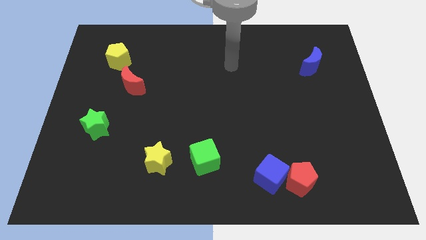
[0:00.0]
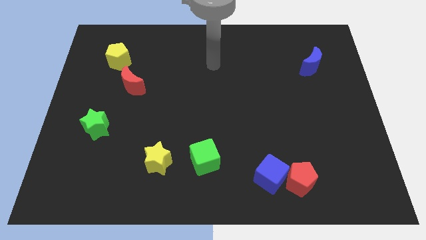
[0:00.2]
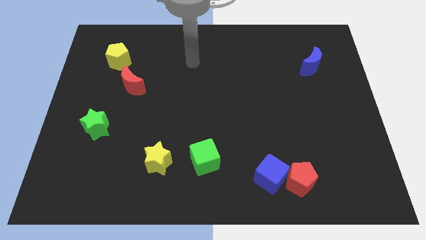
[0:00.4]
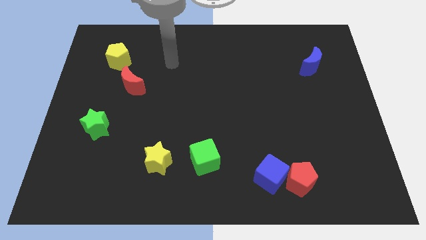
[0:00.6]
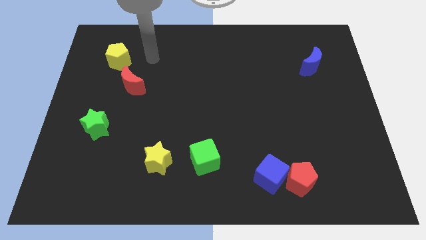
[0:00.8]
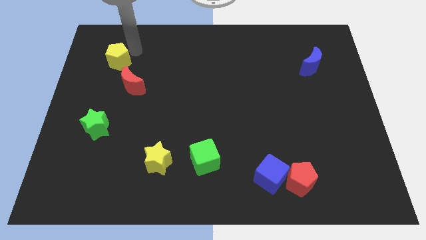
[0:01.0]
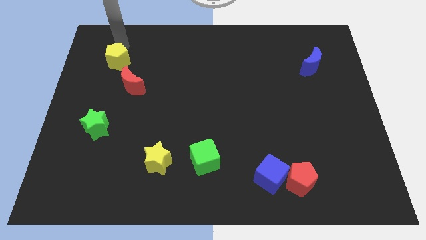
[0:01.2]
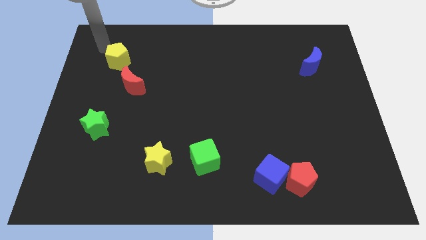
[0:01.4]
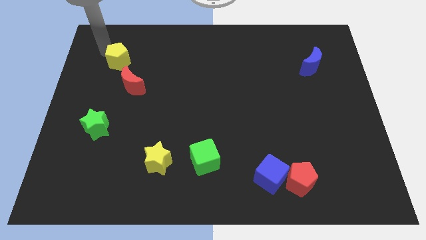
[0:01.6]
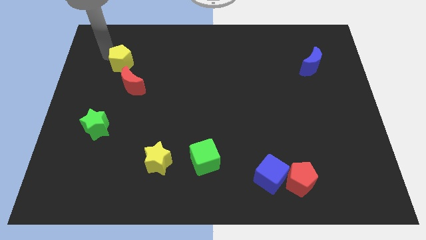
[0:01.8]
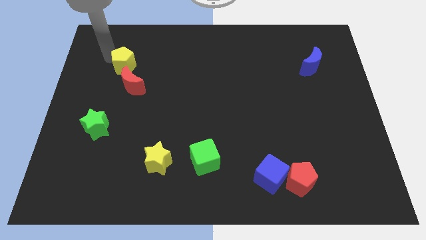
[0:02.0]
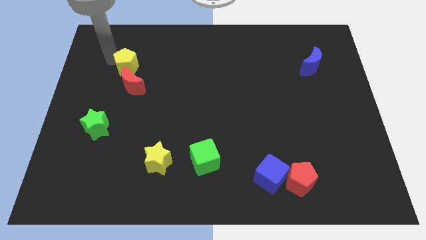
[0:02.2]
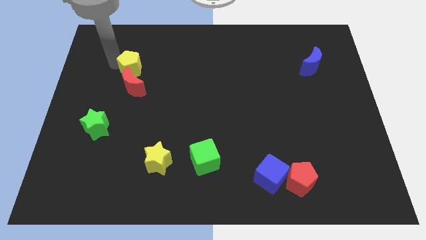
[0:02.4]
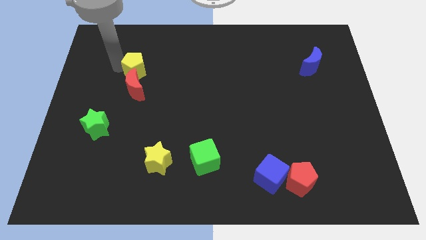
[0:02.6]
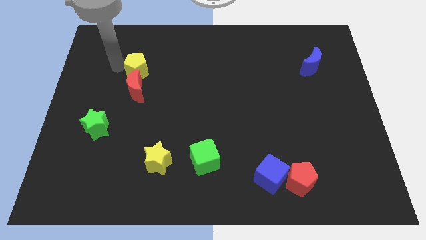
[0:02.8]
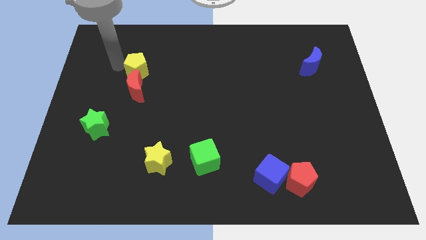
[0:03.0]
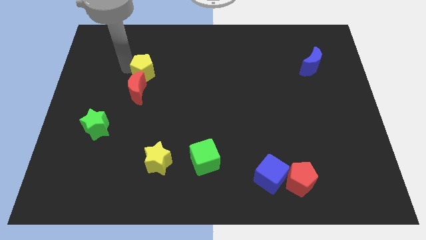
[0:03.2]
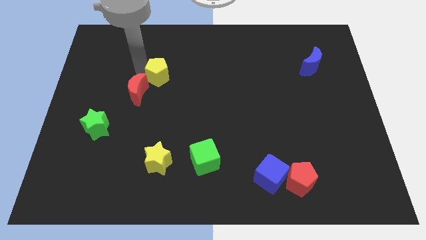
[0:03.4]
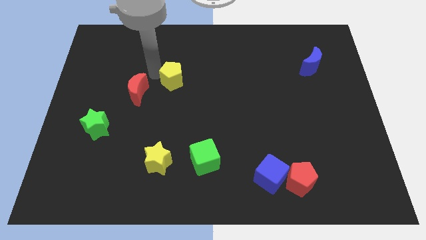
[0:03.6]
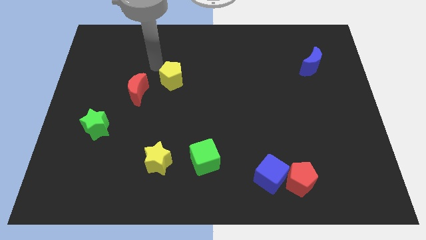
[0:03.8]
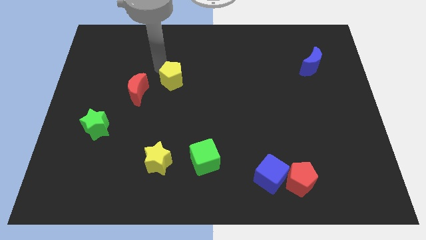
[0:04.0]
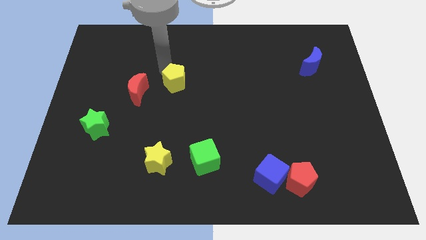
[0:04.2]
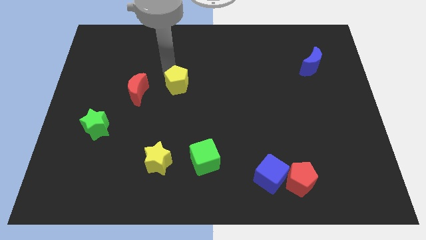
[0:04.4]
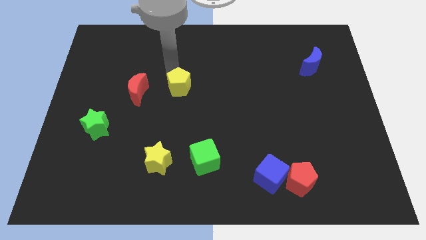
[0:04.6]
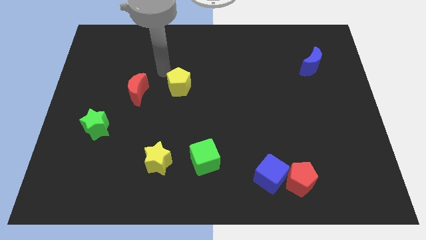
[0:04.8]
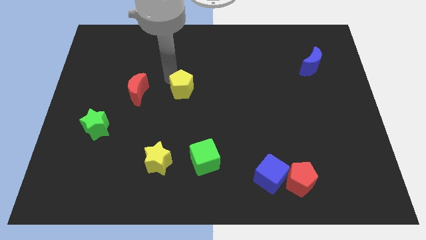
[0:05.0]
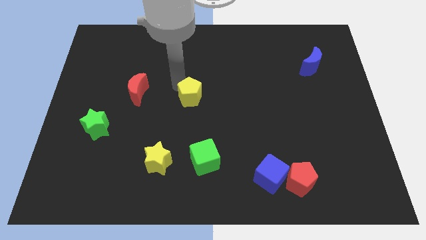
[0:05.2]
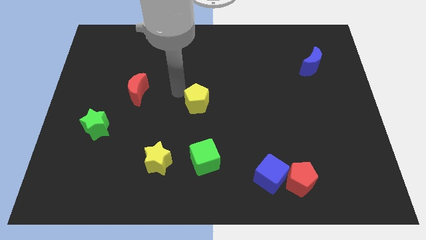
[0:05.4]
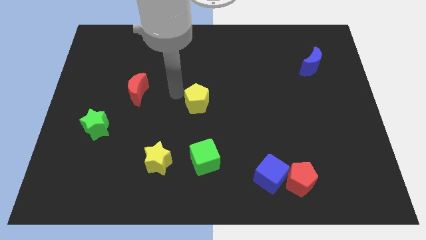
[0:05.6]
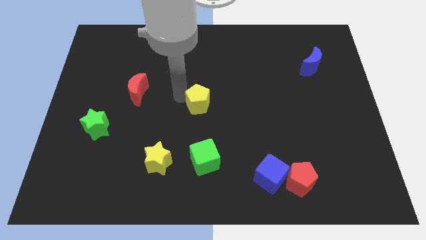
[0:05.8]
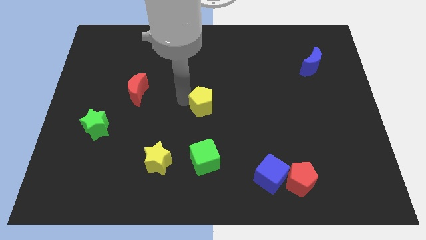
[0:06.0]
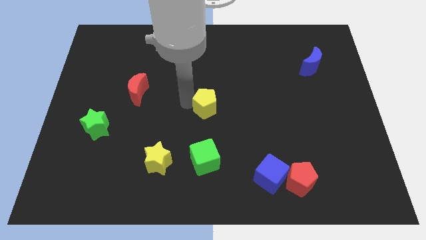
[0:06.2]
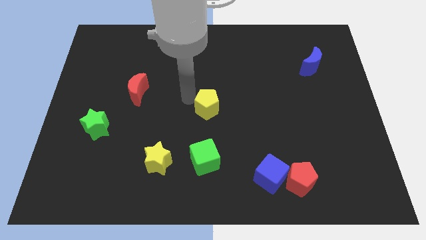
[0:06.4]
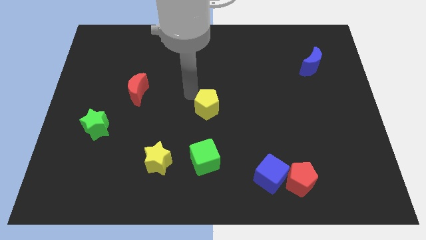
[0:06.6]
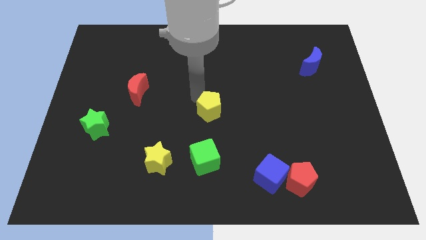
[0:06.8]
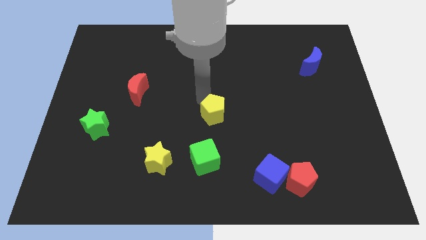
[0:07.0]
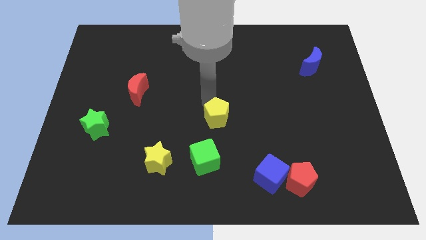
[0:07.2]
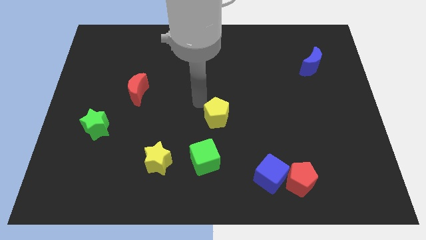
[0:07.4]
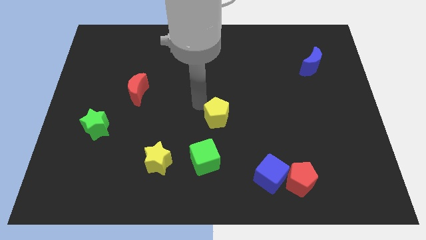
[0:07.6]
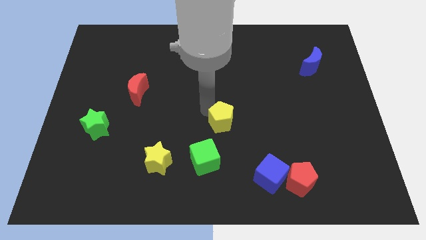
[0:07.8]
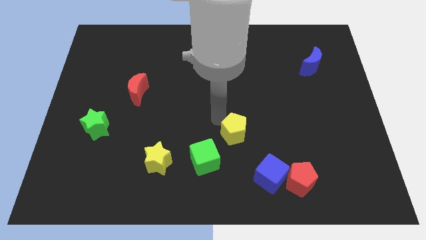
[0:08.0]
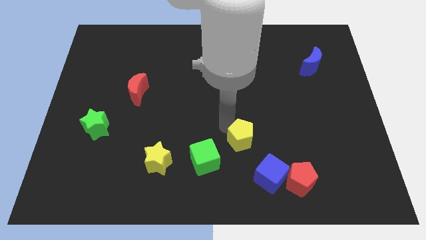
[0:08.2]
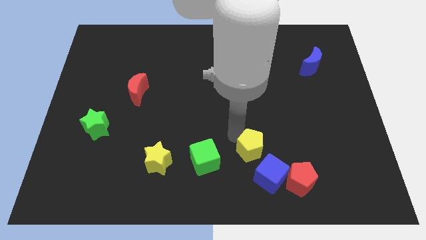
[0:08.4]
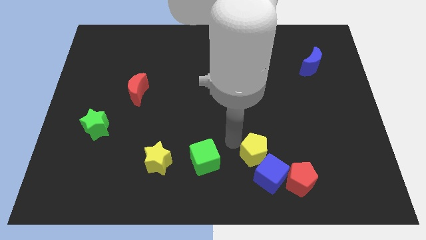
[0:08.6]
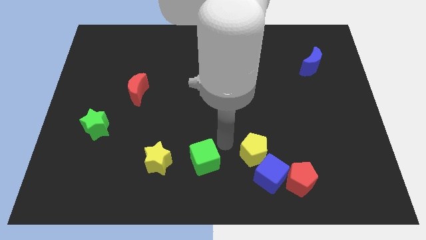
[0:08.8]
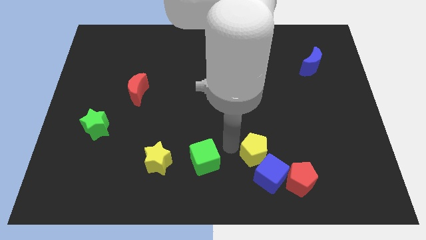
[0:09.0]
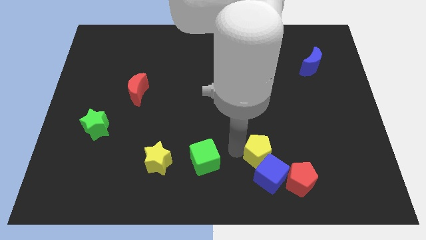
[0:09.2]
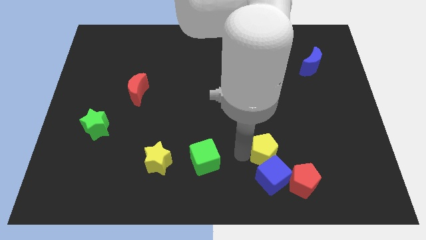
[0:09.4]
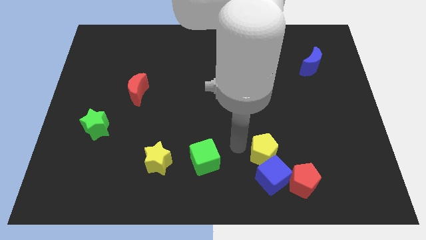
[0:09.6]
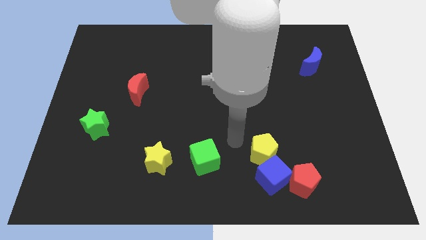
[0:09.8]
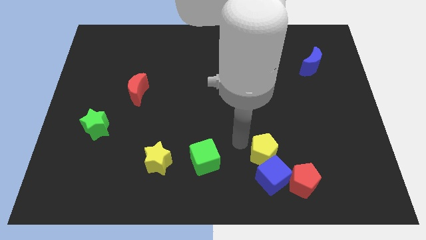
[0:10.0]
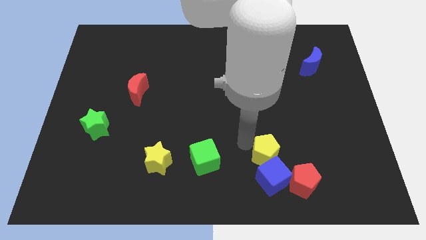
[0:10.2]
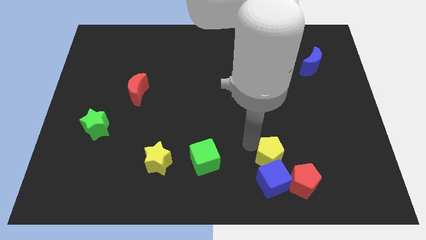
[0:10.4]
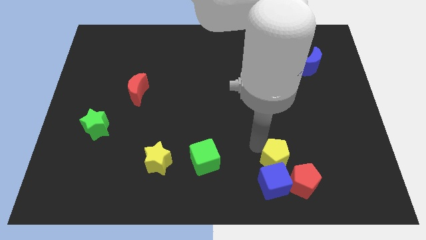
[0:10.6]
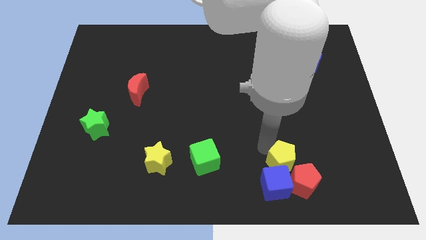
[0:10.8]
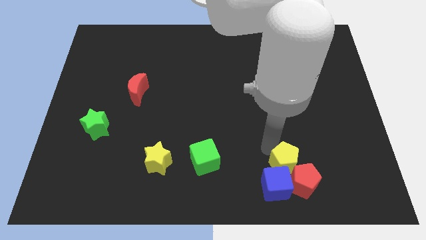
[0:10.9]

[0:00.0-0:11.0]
move the yellow pentagon towards the red pentagon

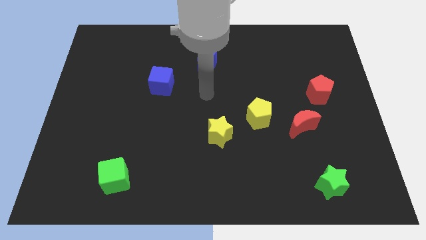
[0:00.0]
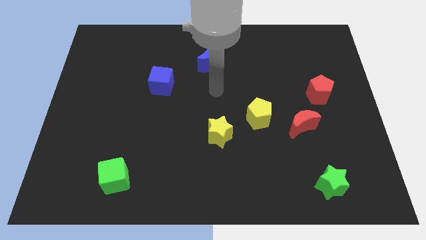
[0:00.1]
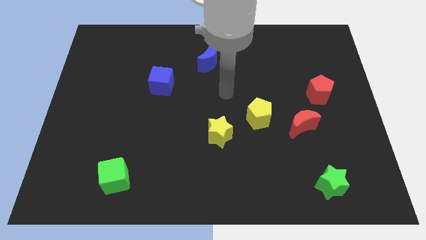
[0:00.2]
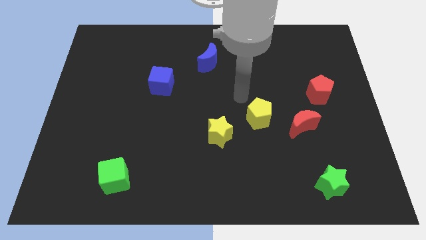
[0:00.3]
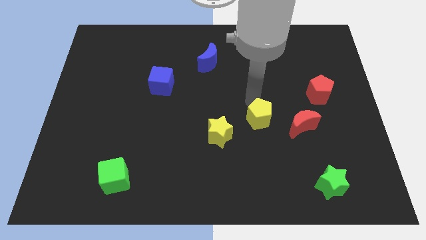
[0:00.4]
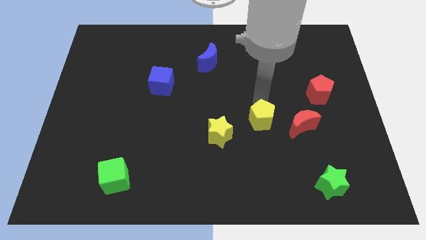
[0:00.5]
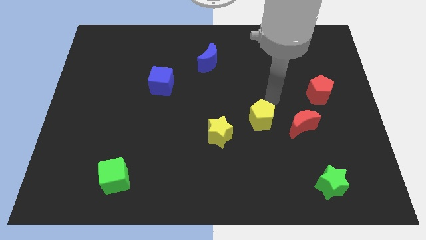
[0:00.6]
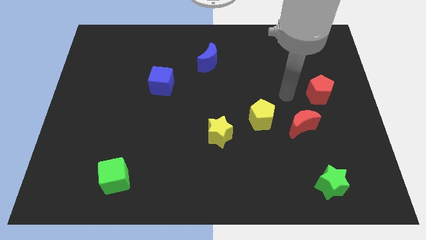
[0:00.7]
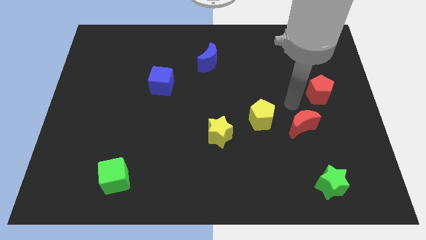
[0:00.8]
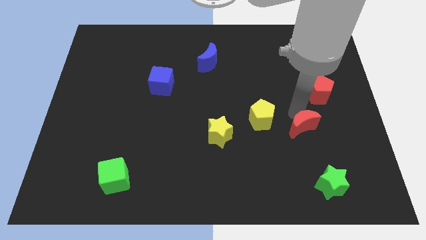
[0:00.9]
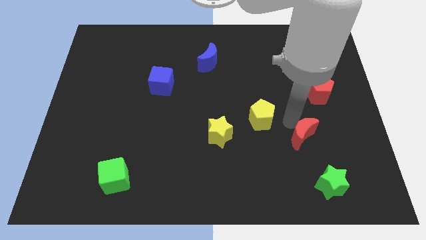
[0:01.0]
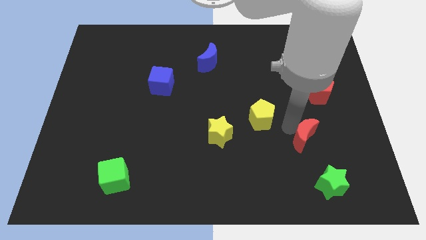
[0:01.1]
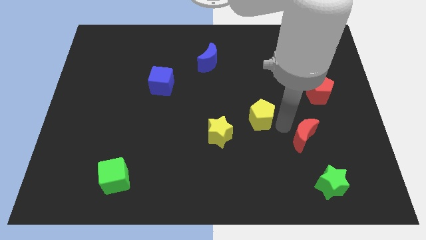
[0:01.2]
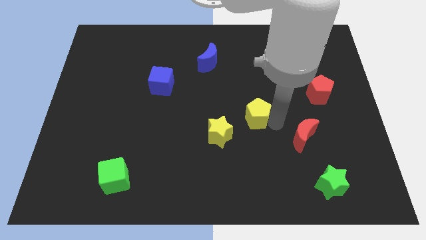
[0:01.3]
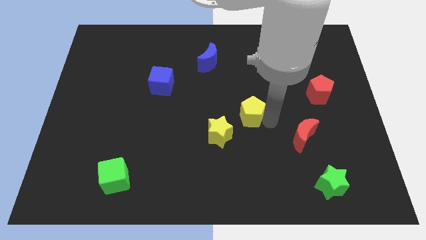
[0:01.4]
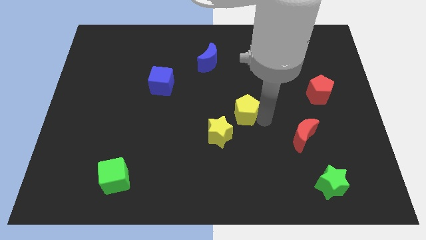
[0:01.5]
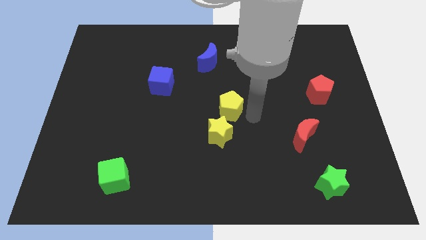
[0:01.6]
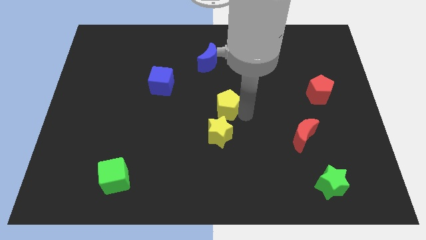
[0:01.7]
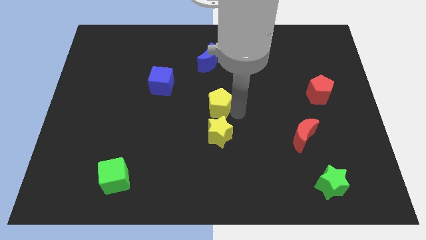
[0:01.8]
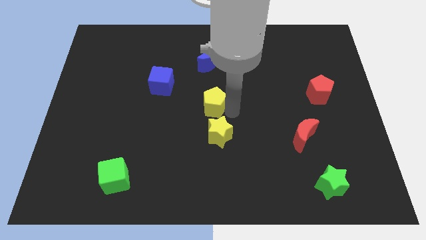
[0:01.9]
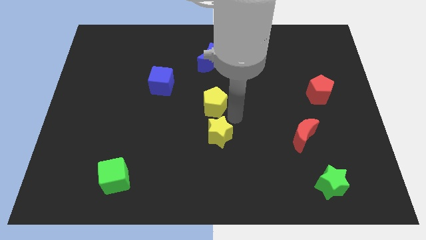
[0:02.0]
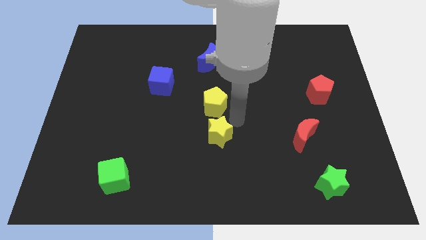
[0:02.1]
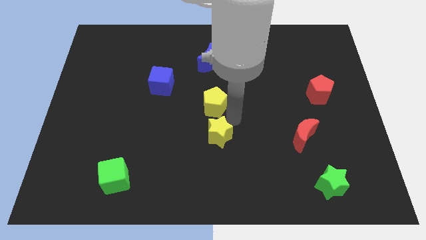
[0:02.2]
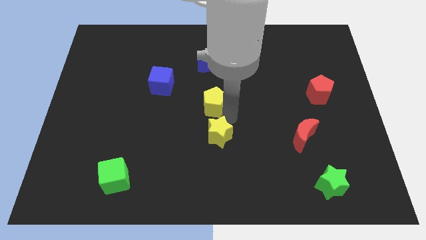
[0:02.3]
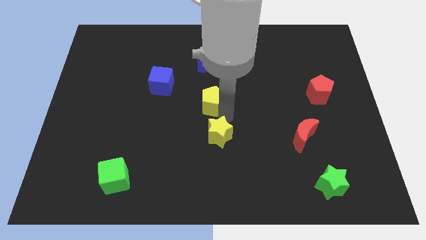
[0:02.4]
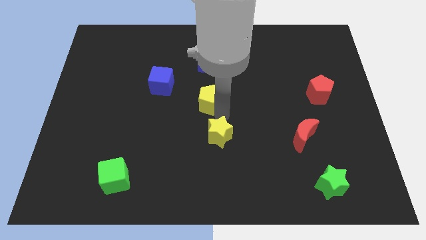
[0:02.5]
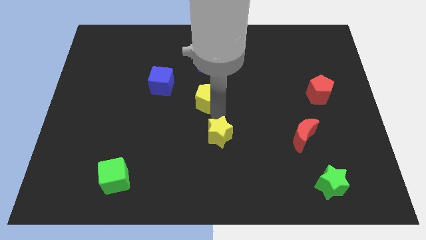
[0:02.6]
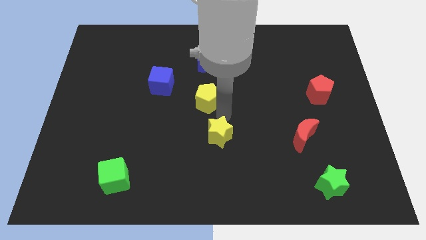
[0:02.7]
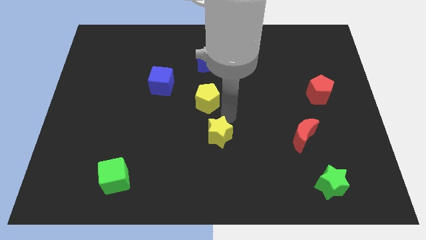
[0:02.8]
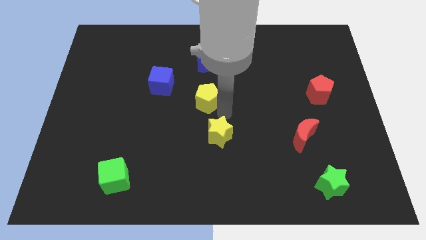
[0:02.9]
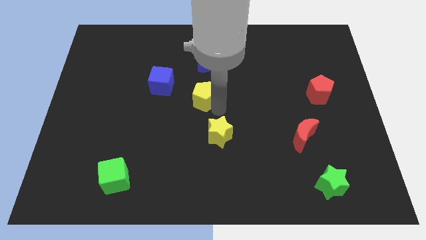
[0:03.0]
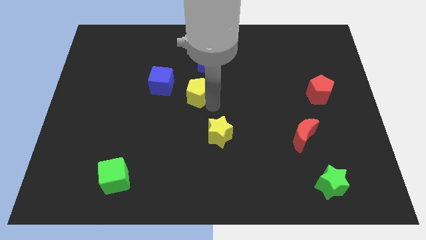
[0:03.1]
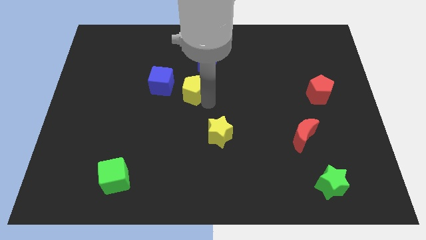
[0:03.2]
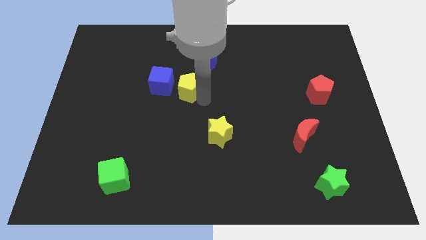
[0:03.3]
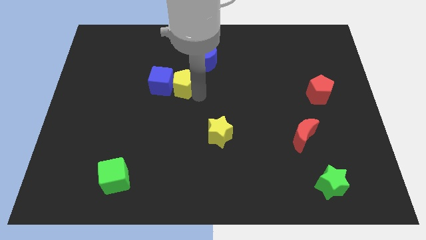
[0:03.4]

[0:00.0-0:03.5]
push the yellow pentagon close to the blue cube
